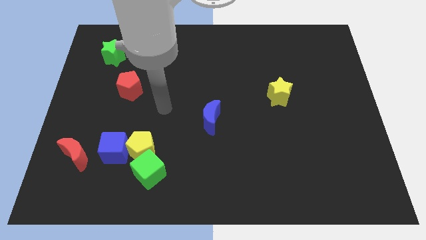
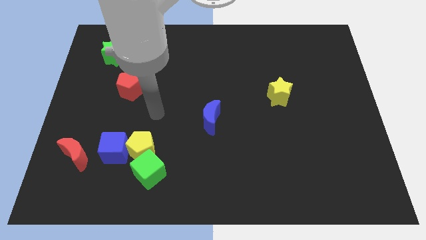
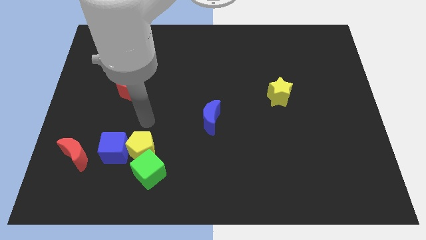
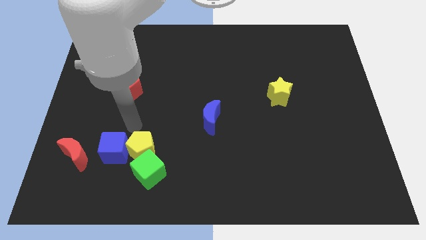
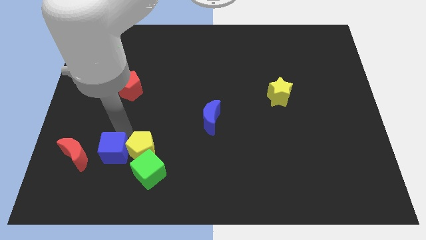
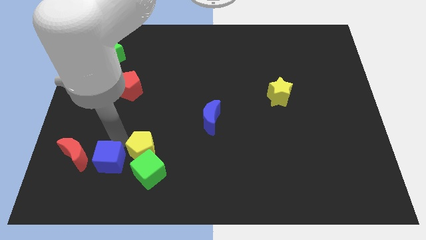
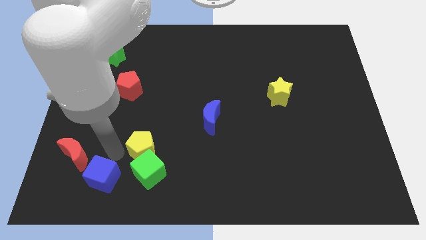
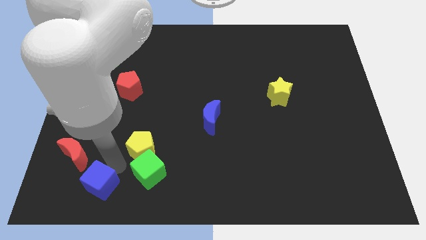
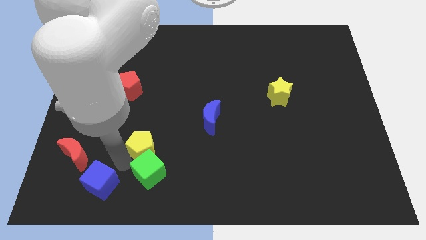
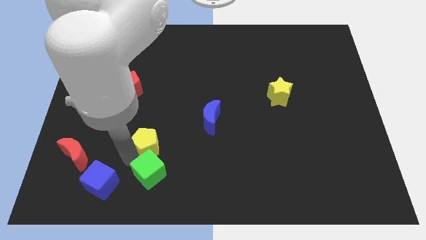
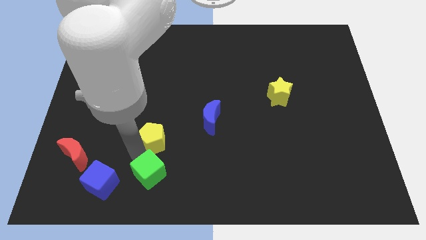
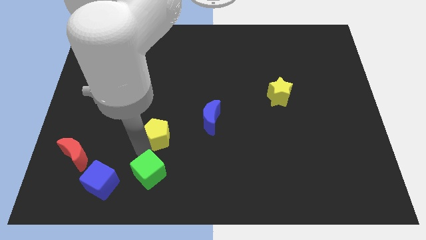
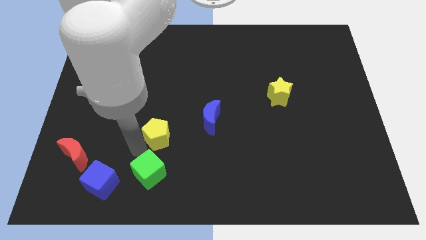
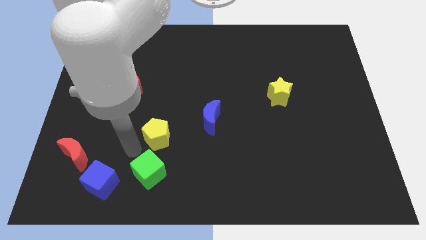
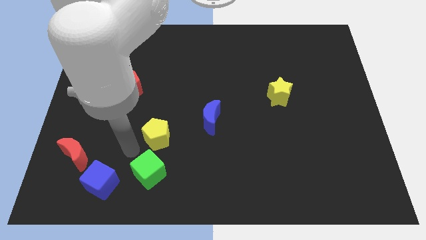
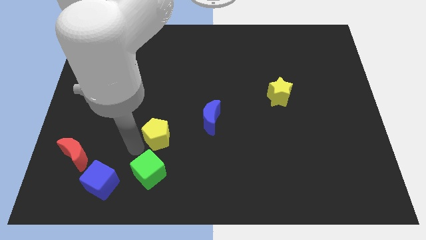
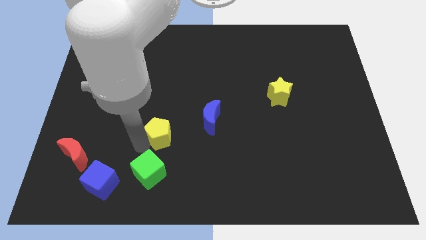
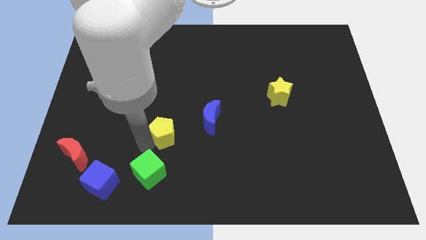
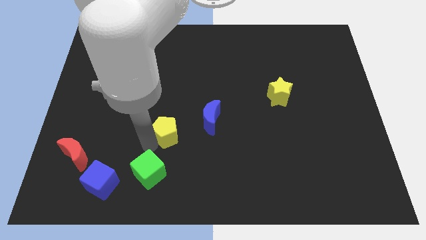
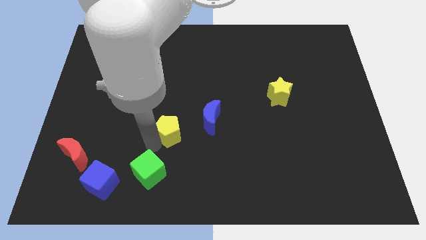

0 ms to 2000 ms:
slightly slide the yellow pentagon upwards and right

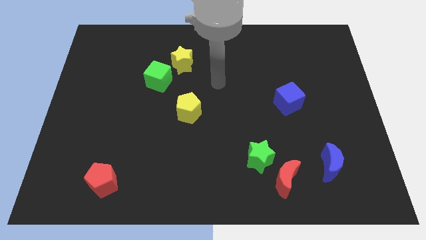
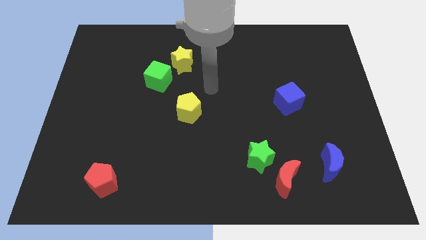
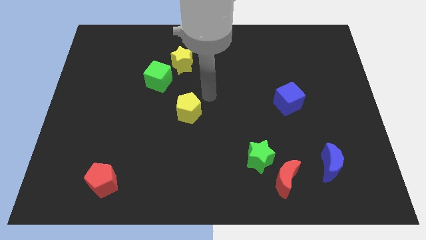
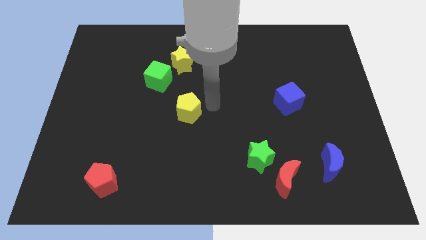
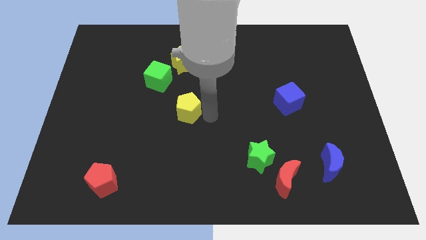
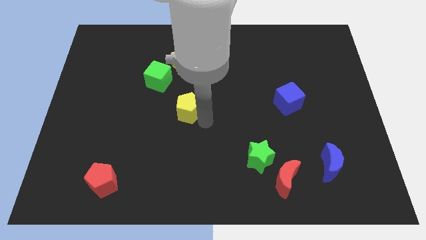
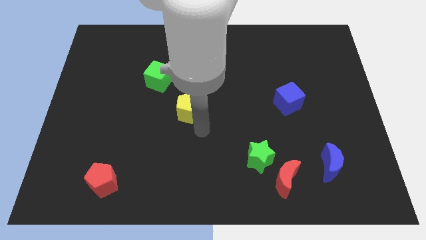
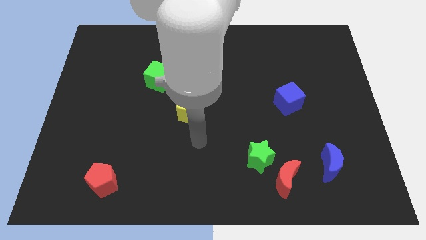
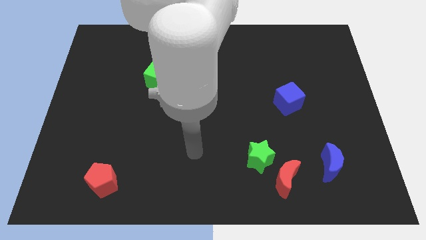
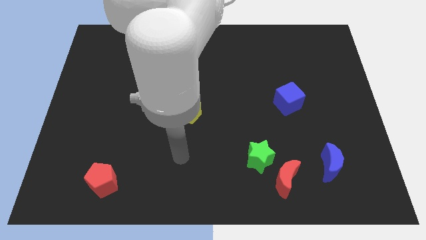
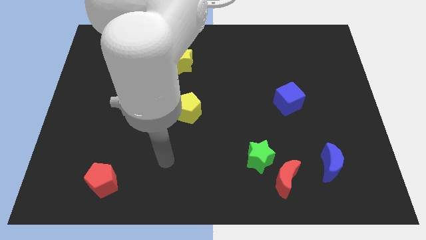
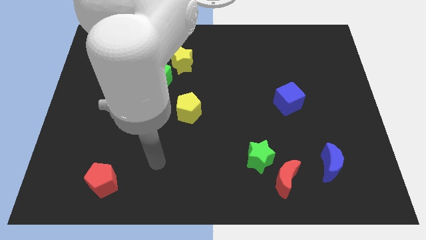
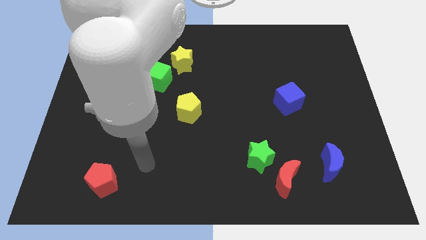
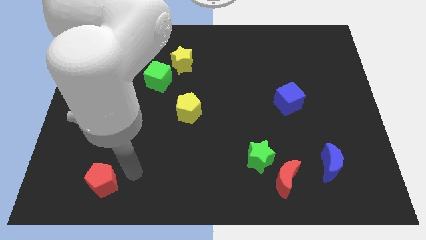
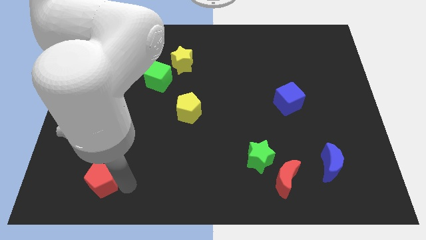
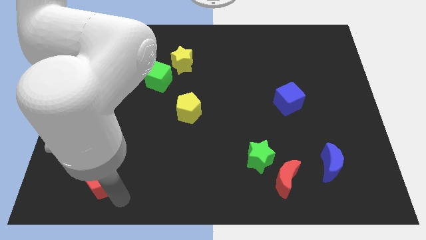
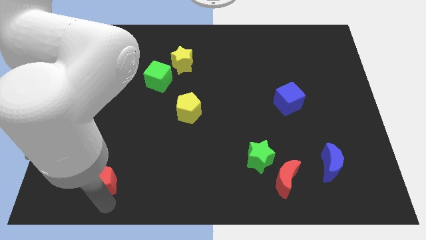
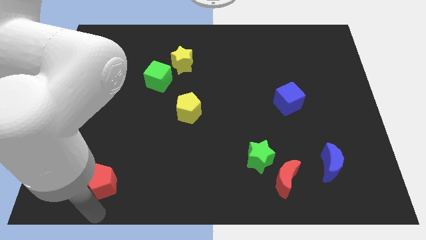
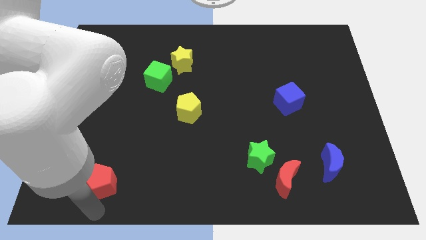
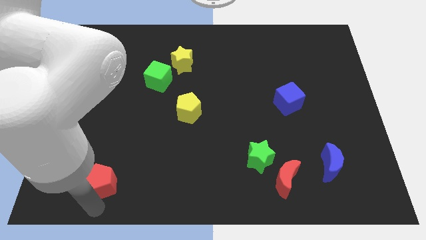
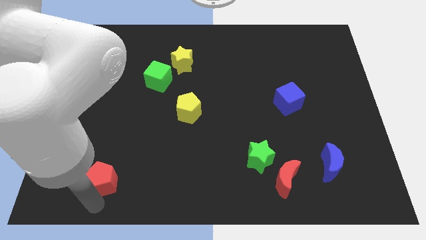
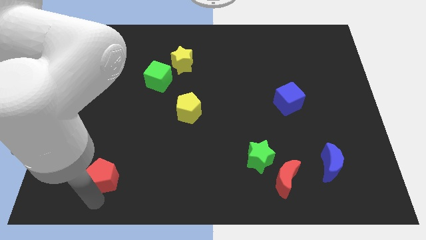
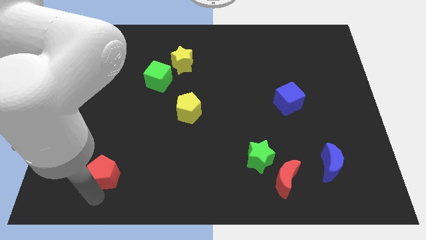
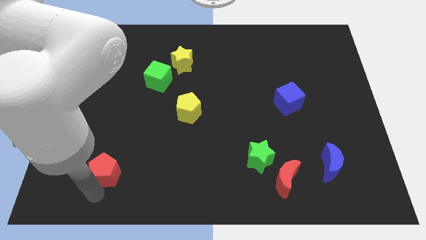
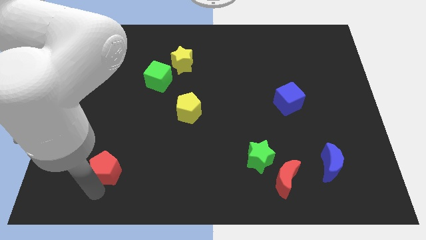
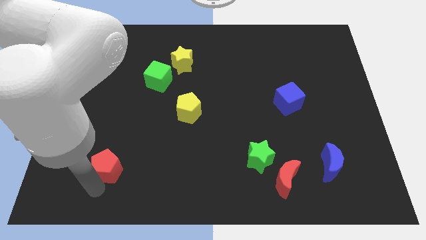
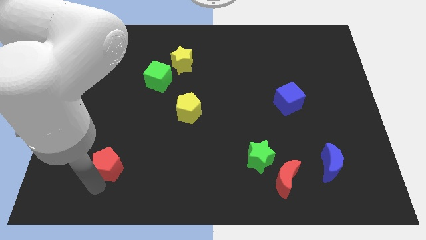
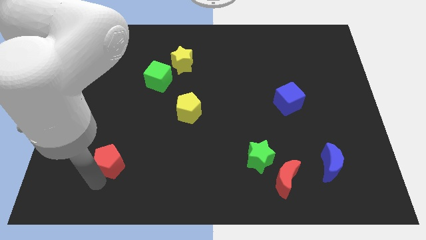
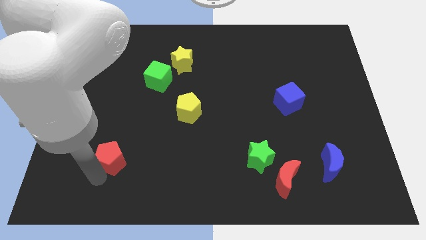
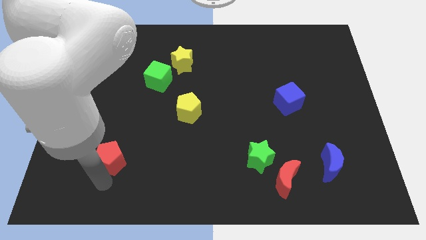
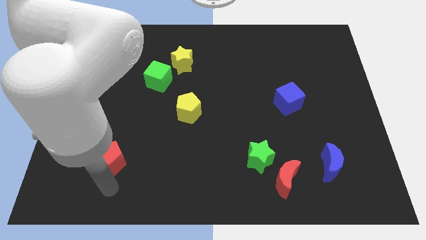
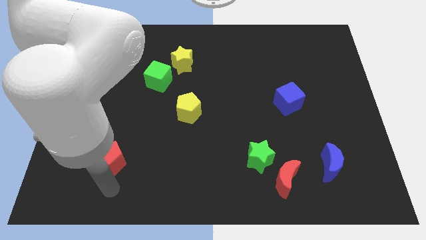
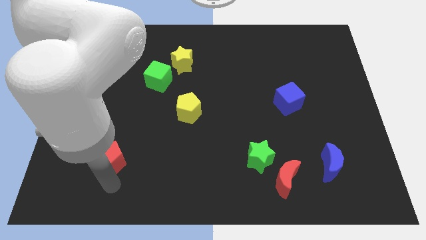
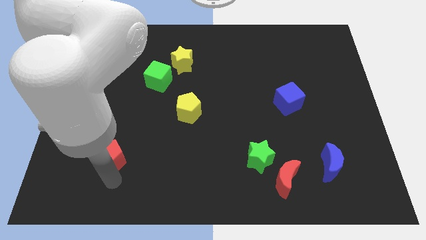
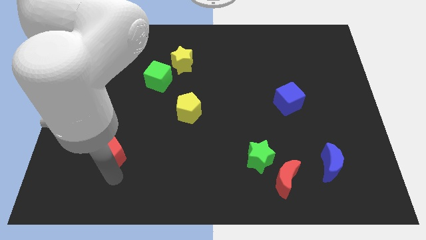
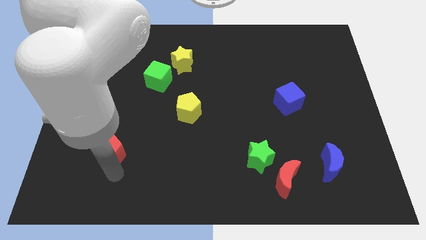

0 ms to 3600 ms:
push the red pentagon somewhat upwards

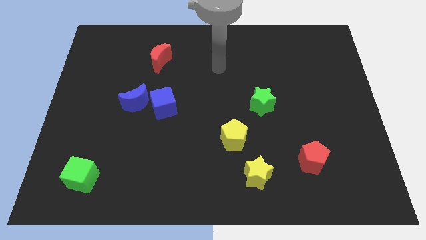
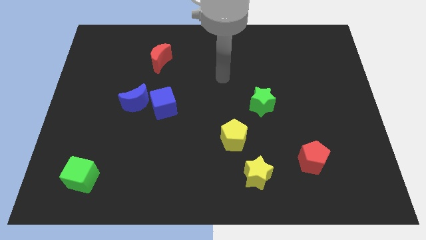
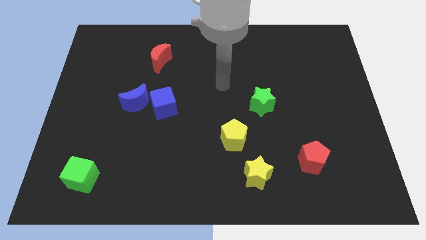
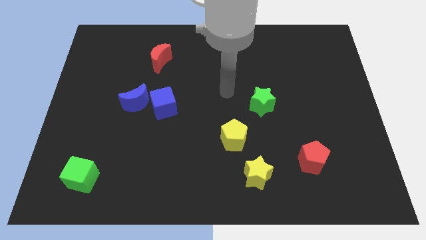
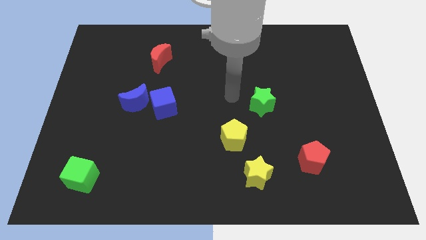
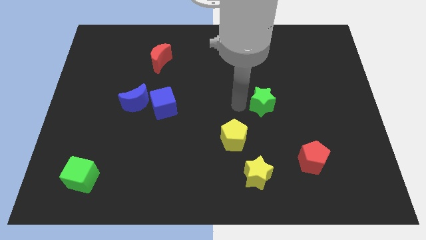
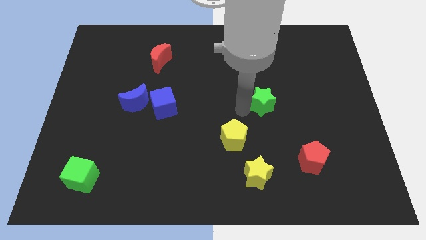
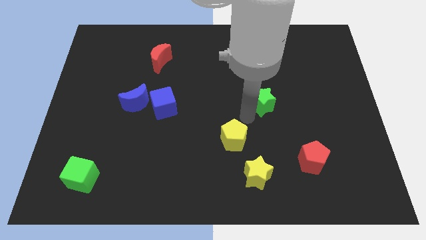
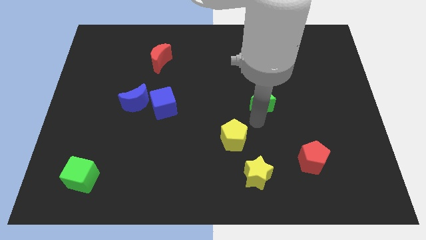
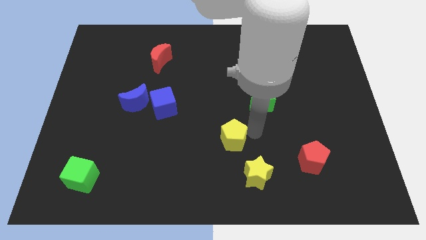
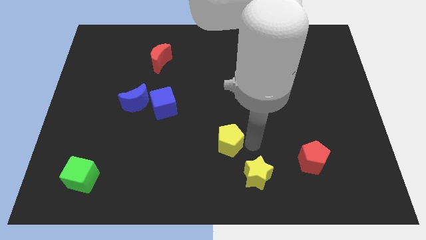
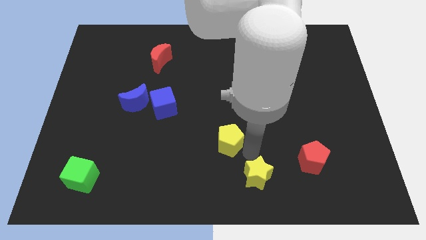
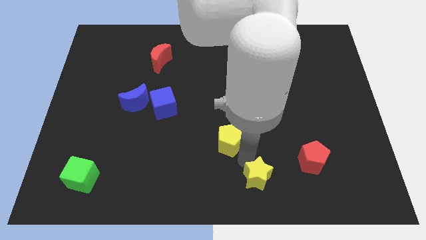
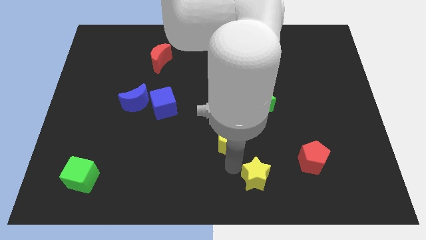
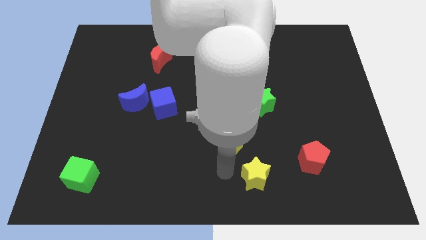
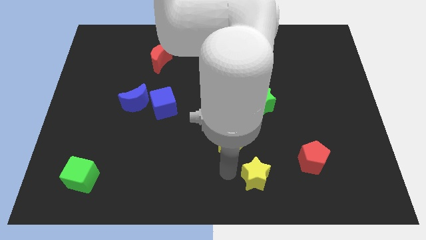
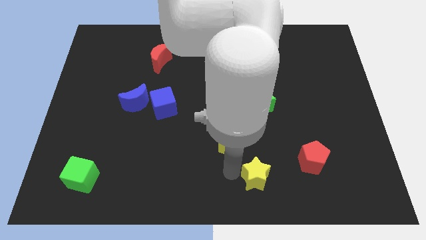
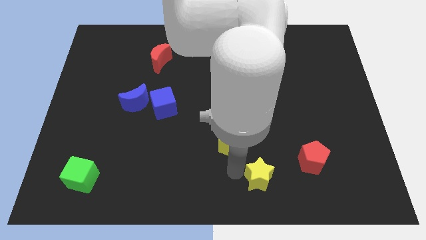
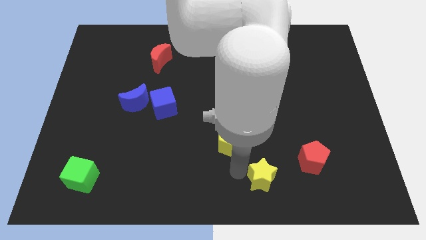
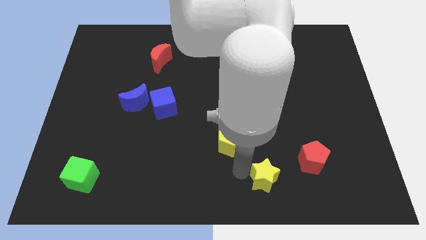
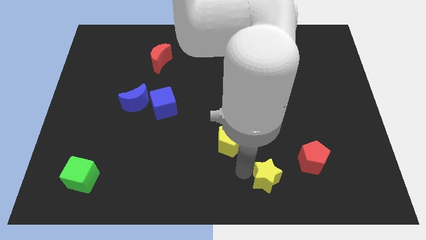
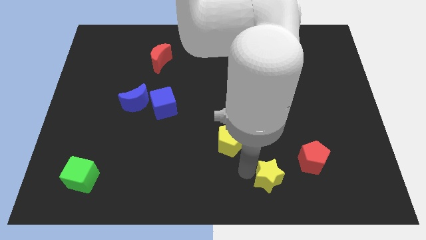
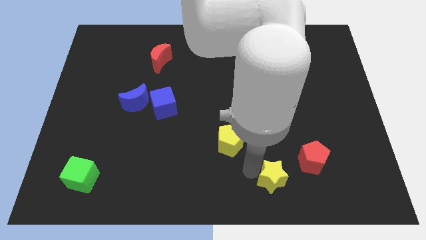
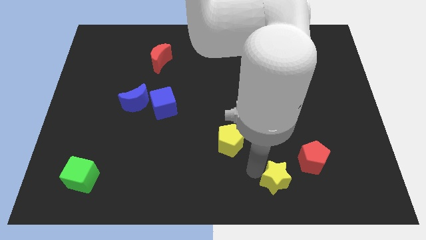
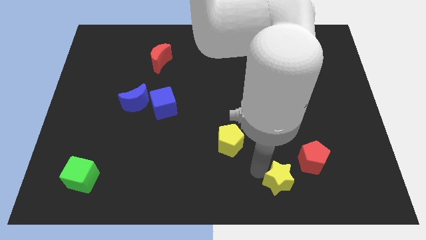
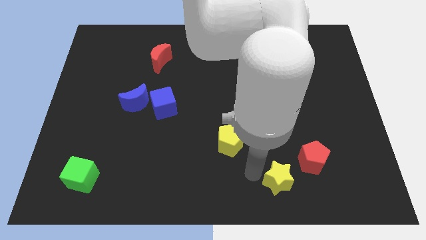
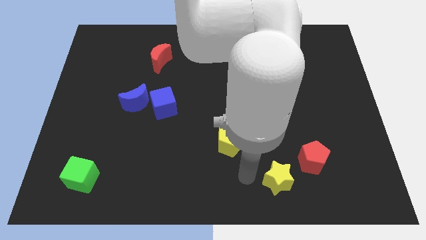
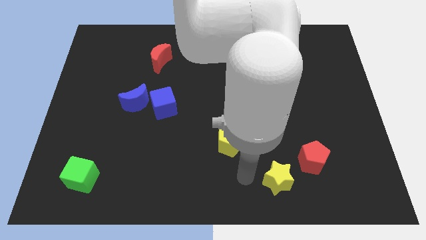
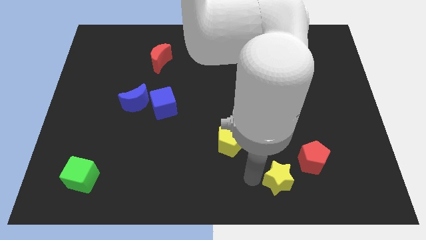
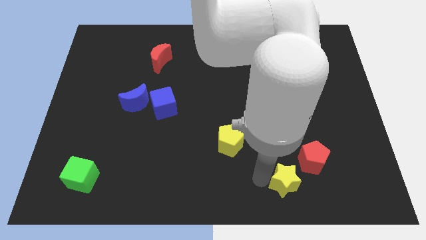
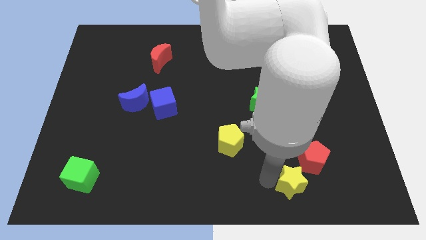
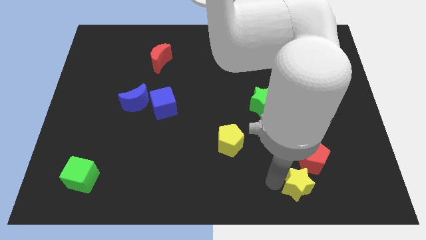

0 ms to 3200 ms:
push the yellow star right slightly
